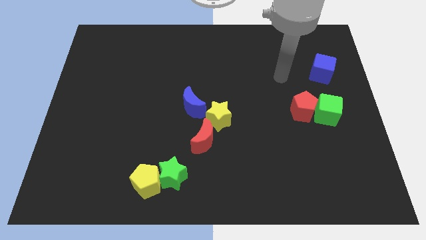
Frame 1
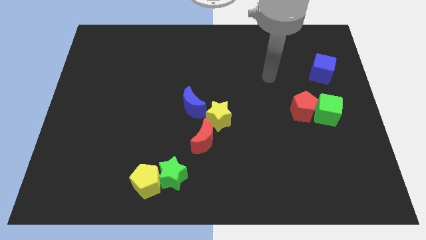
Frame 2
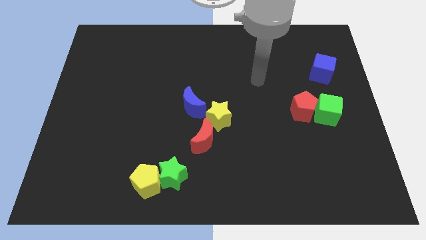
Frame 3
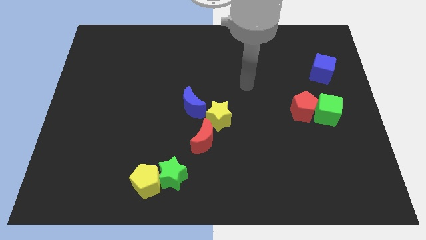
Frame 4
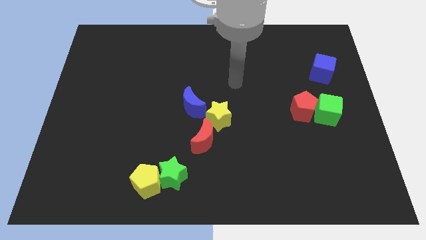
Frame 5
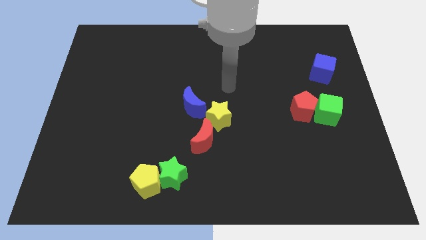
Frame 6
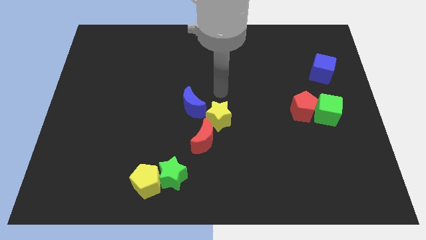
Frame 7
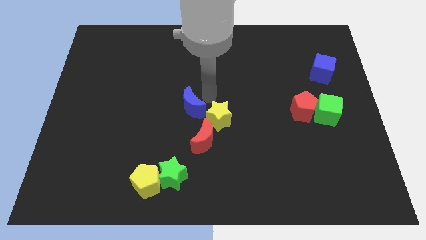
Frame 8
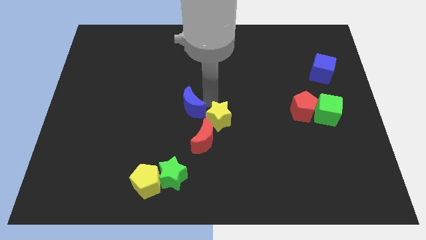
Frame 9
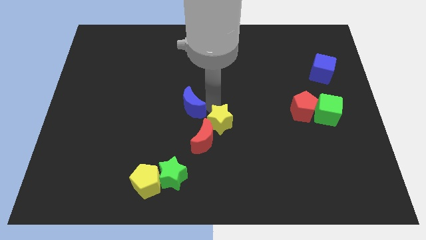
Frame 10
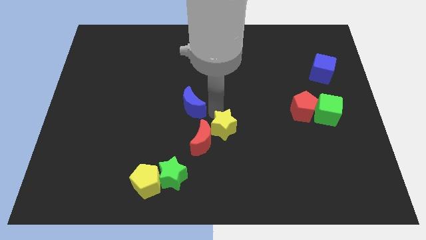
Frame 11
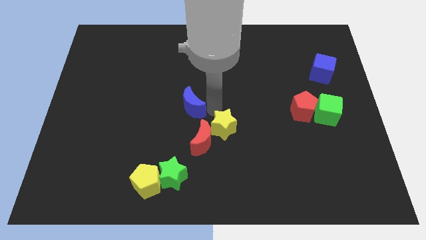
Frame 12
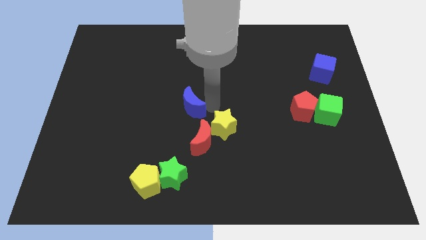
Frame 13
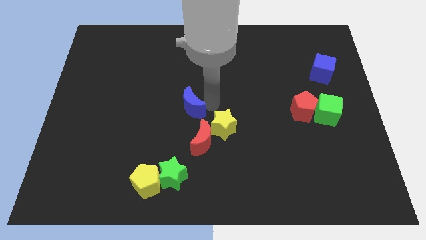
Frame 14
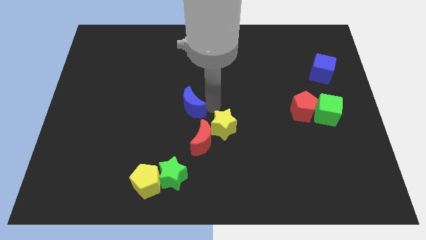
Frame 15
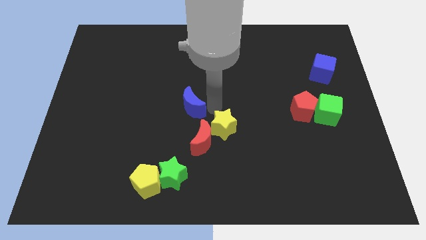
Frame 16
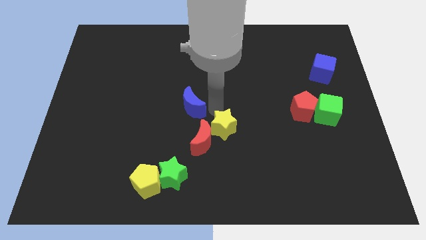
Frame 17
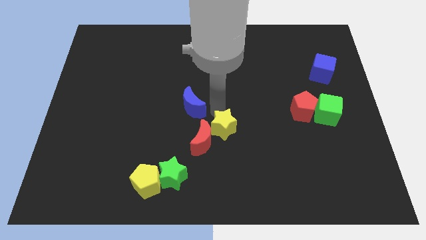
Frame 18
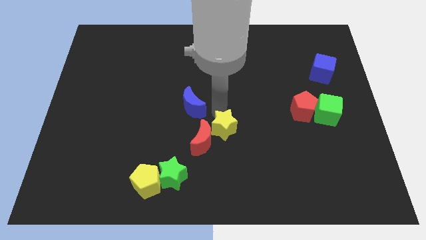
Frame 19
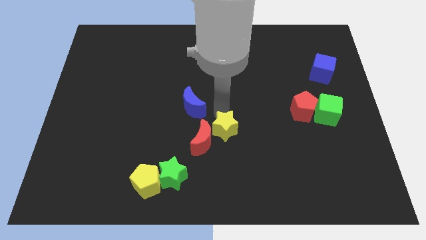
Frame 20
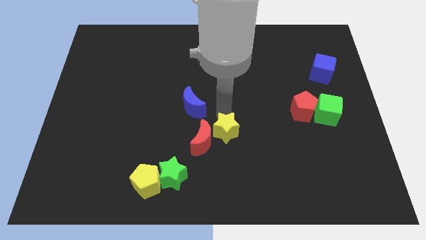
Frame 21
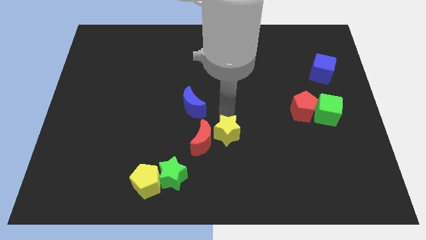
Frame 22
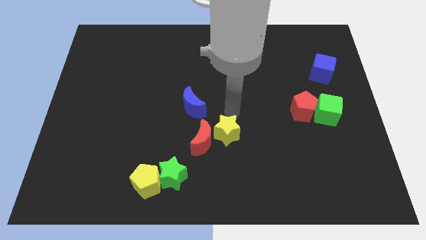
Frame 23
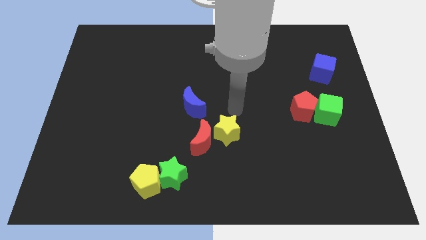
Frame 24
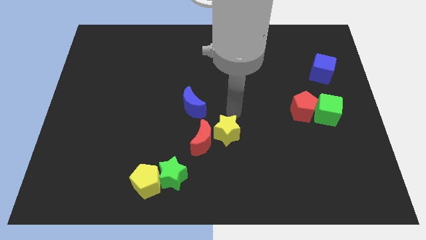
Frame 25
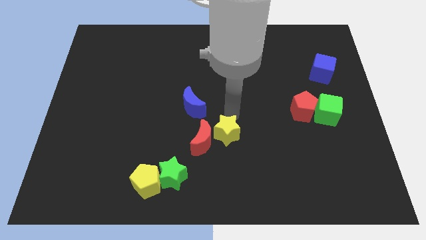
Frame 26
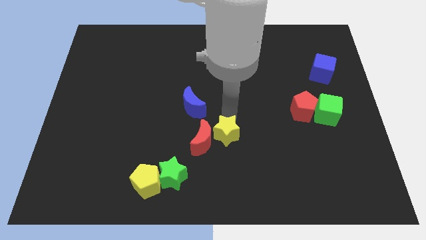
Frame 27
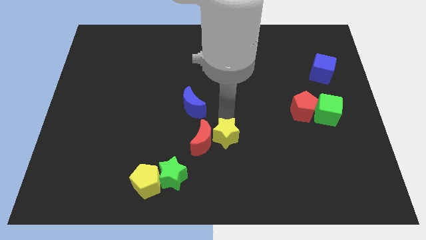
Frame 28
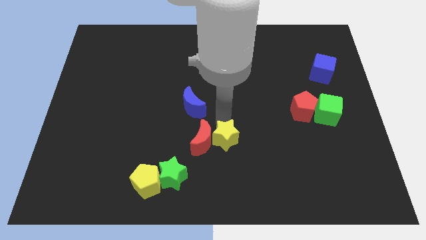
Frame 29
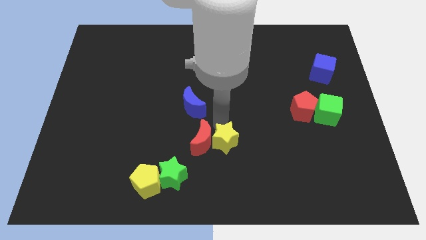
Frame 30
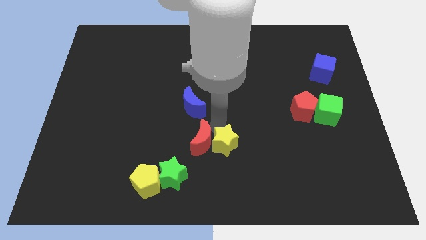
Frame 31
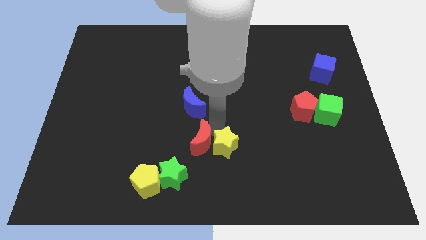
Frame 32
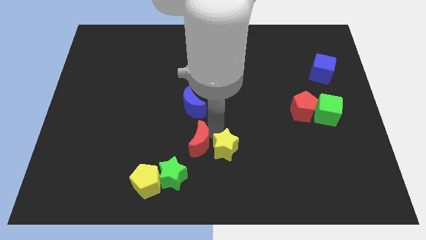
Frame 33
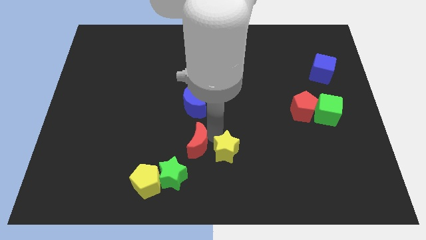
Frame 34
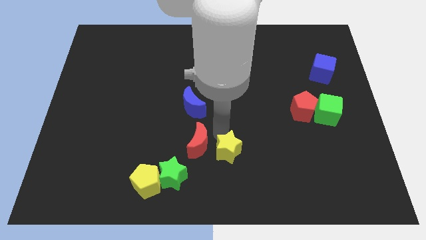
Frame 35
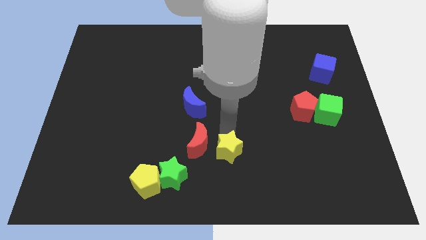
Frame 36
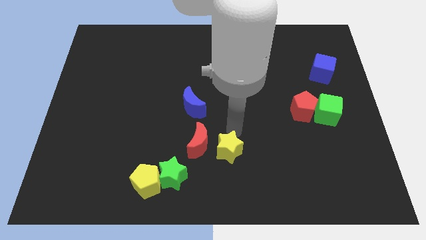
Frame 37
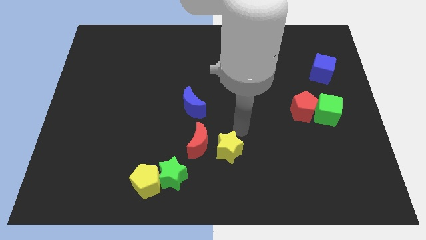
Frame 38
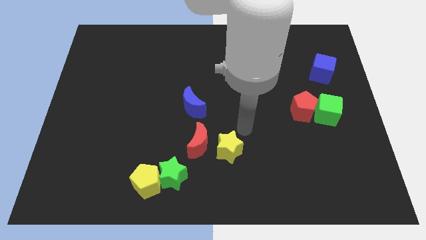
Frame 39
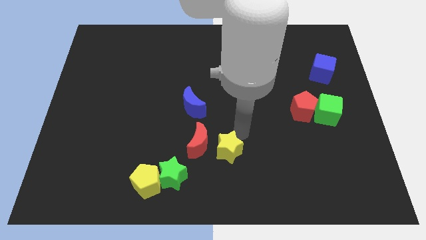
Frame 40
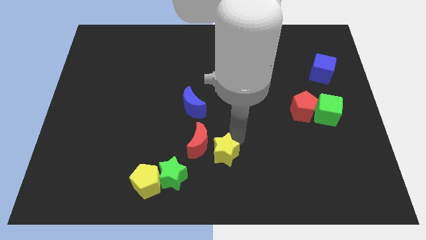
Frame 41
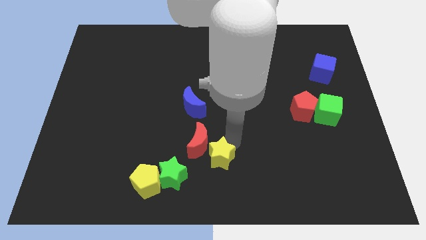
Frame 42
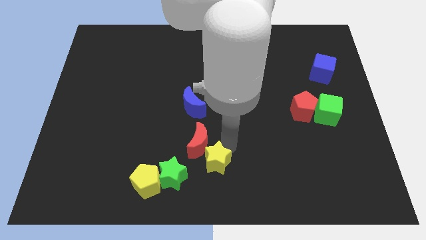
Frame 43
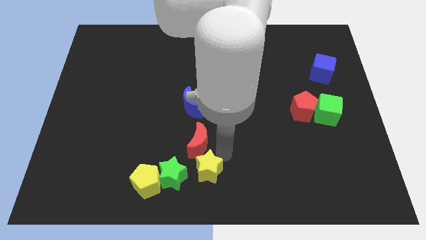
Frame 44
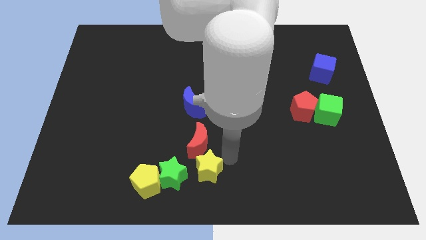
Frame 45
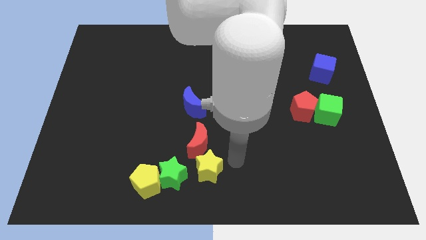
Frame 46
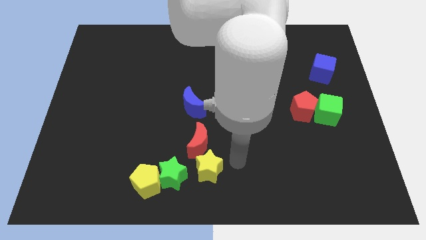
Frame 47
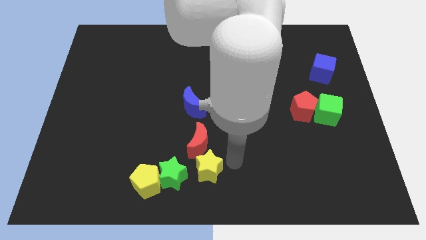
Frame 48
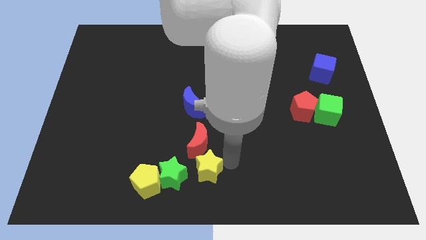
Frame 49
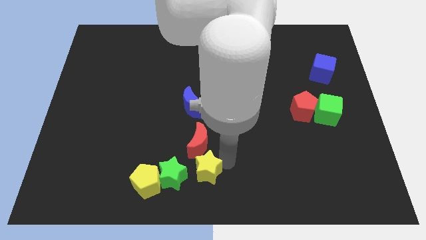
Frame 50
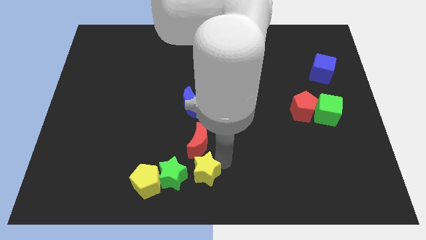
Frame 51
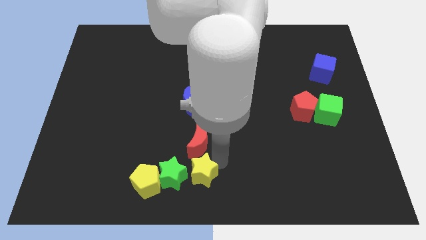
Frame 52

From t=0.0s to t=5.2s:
push the yellow star towards the green star

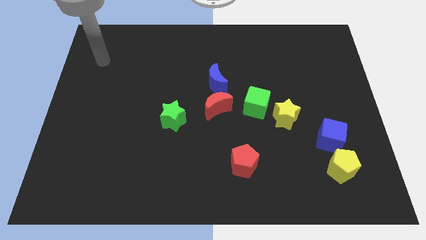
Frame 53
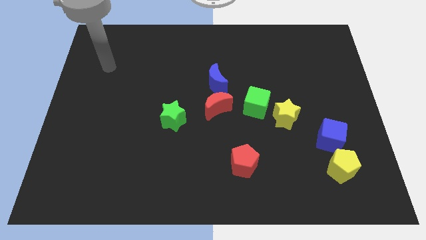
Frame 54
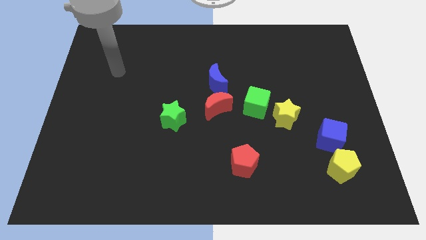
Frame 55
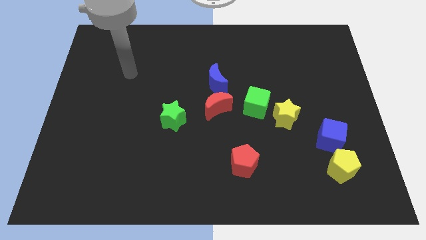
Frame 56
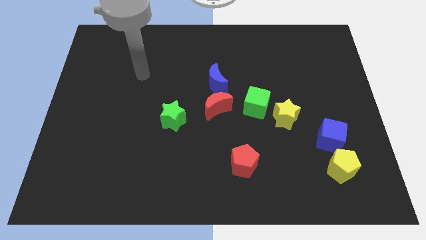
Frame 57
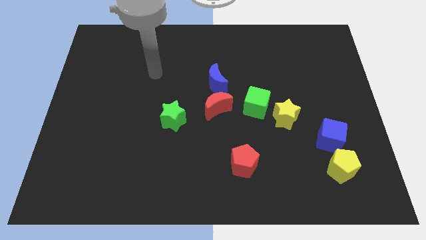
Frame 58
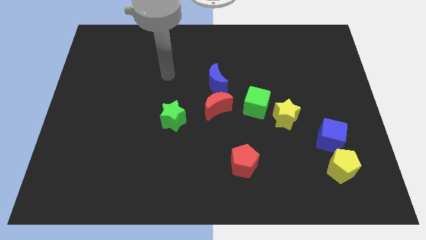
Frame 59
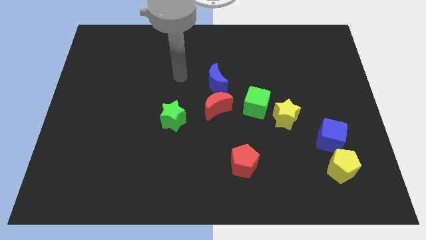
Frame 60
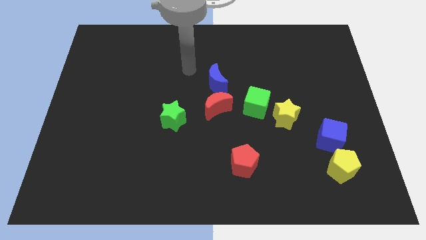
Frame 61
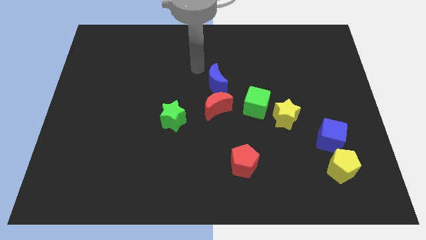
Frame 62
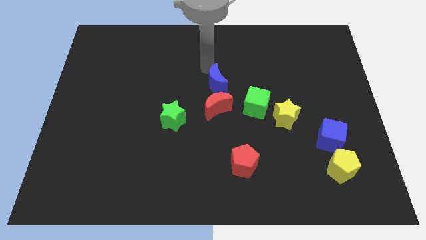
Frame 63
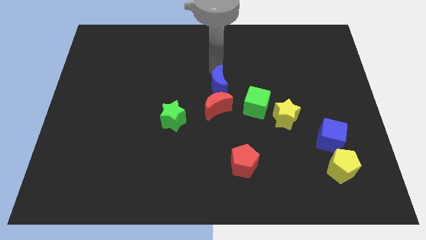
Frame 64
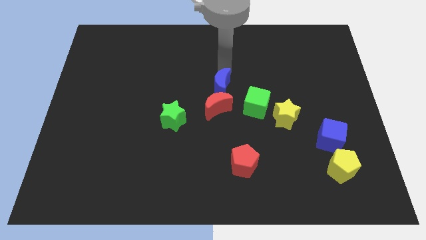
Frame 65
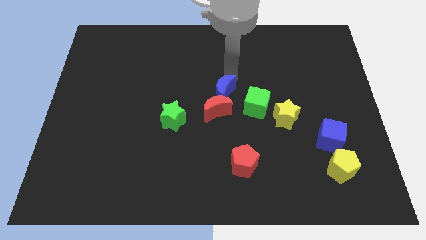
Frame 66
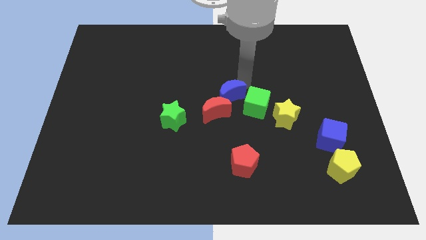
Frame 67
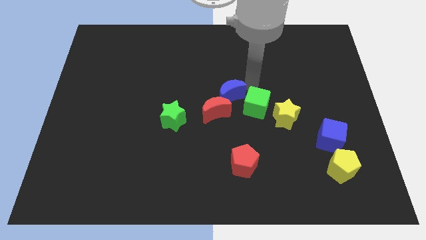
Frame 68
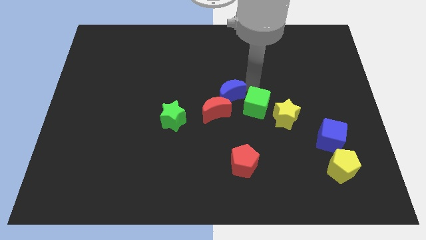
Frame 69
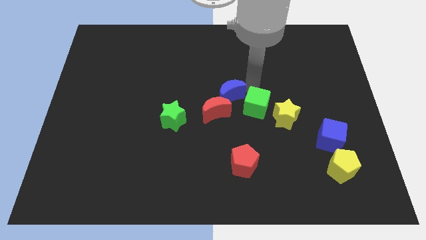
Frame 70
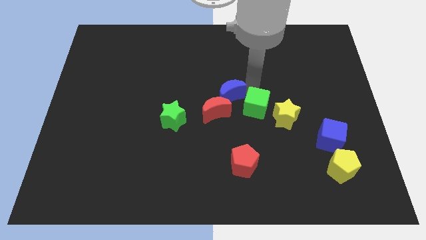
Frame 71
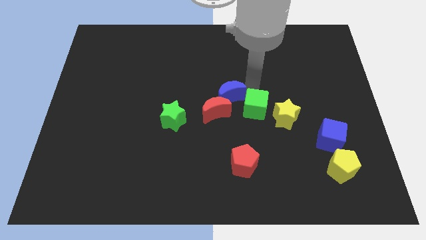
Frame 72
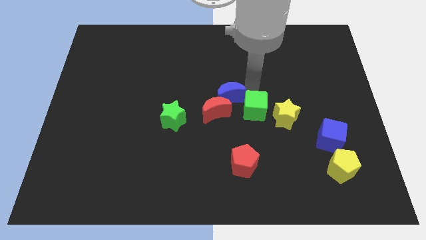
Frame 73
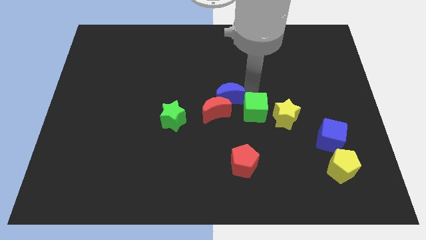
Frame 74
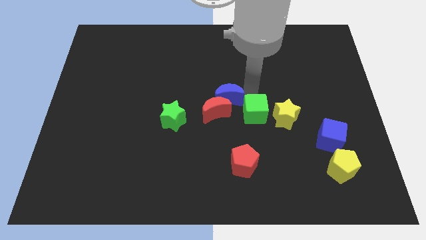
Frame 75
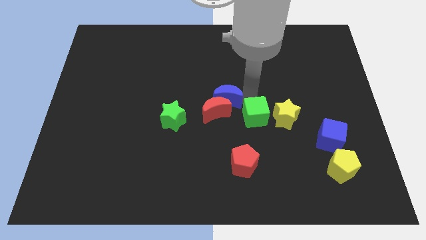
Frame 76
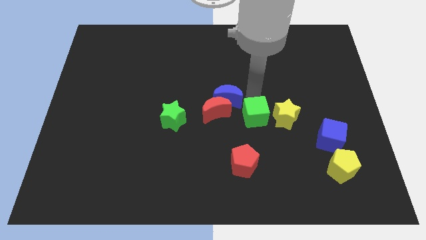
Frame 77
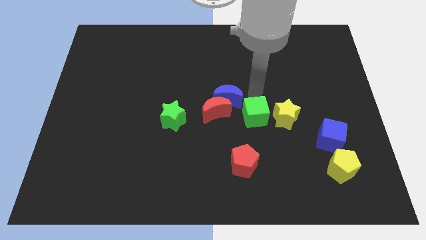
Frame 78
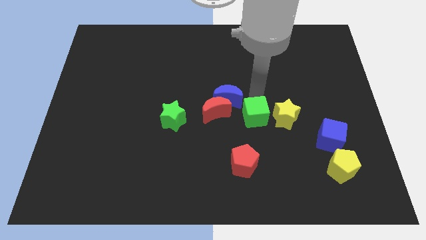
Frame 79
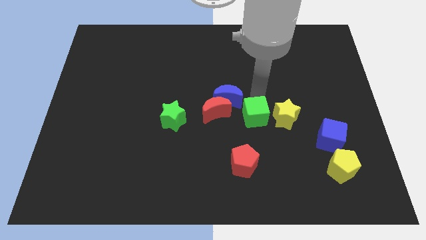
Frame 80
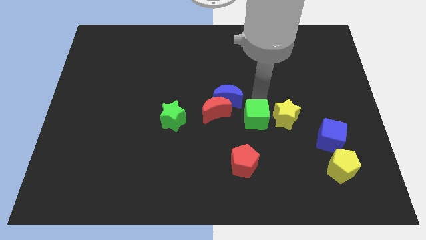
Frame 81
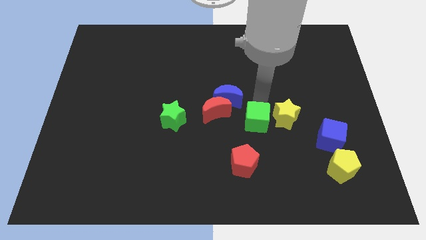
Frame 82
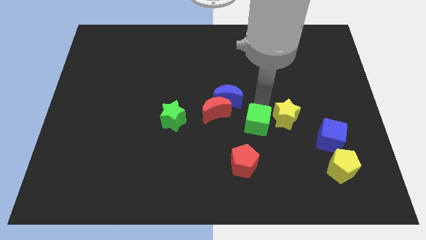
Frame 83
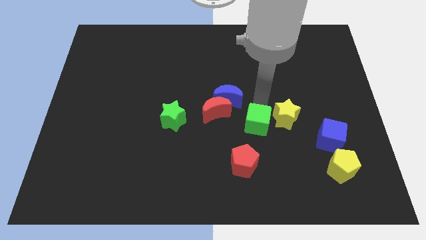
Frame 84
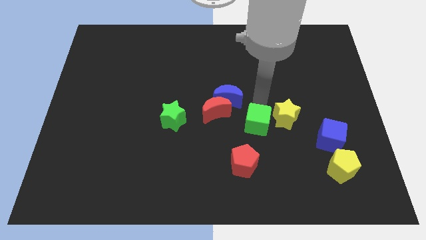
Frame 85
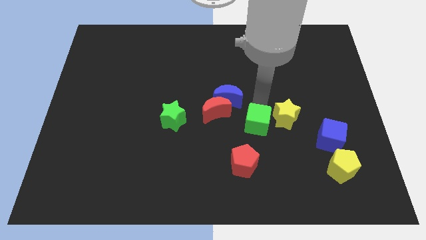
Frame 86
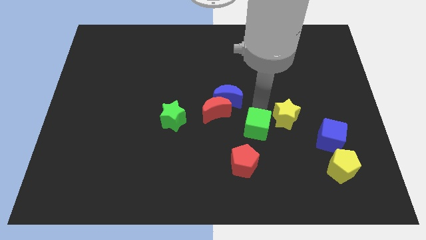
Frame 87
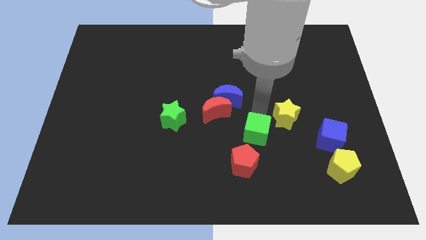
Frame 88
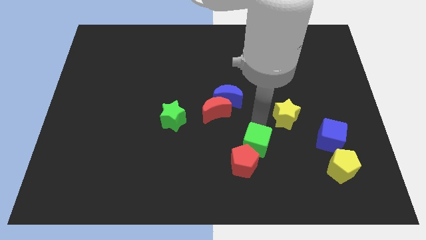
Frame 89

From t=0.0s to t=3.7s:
slide the green cube towards the red pentagon
